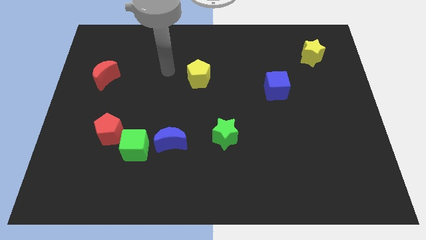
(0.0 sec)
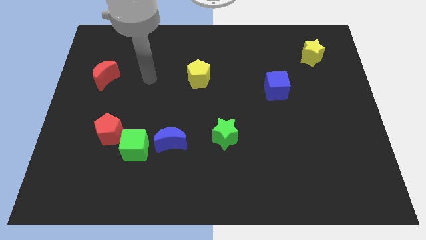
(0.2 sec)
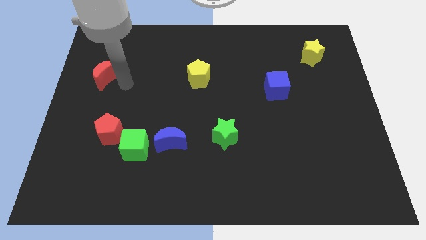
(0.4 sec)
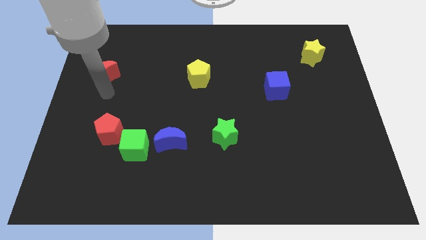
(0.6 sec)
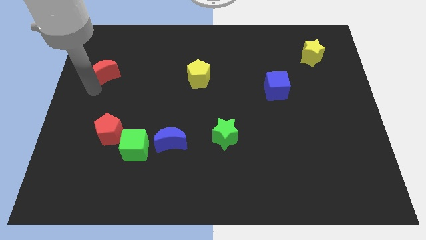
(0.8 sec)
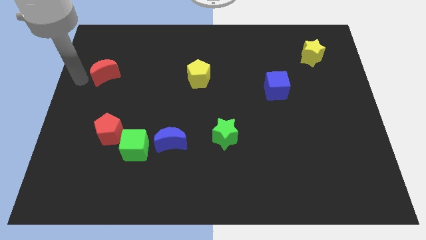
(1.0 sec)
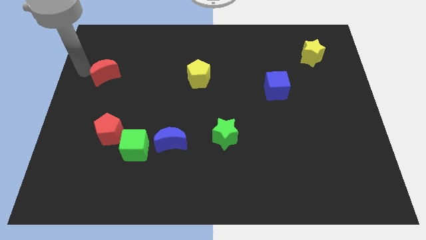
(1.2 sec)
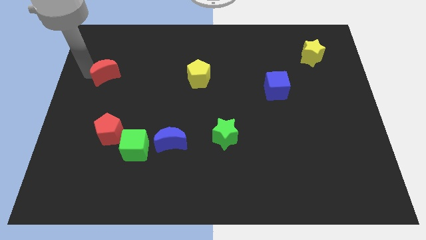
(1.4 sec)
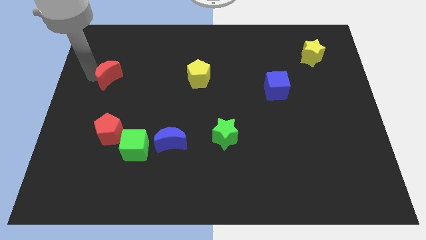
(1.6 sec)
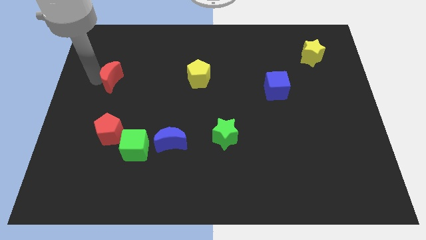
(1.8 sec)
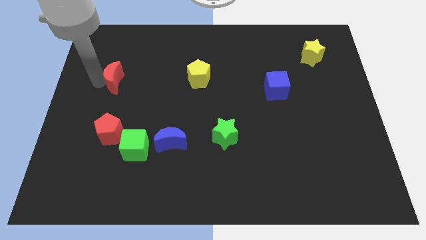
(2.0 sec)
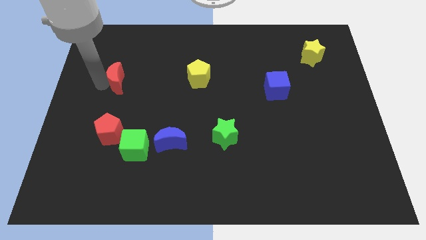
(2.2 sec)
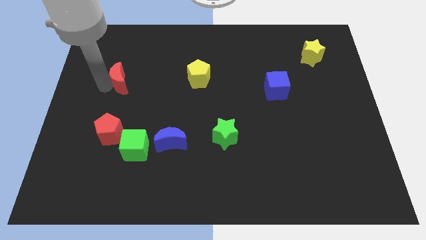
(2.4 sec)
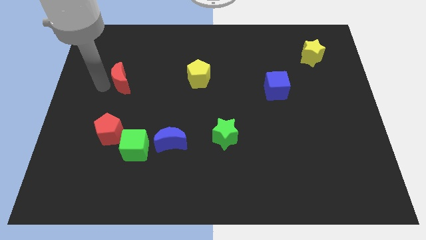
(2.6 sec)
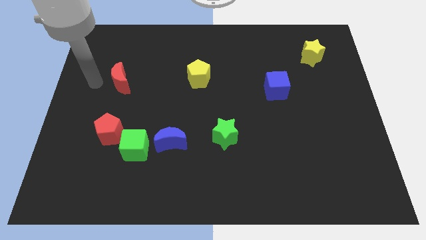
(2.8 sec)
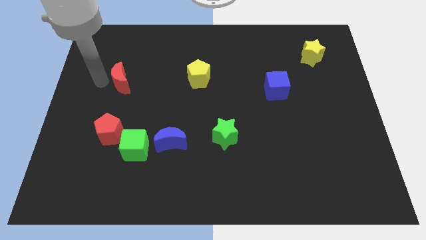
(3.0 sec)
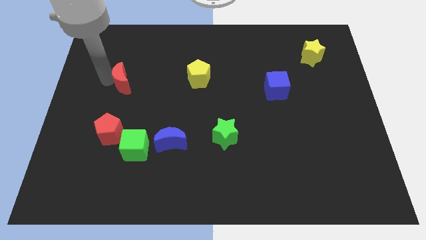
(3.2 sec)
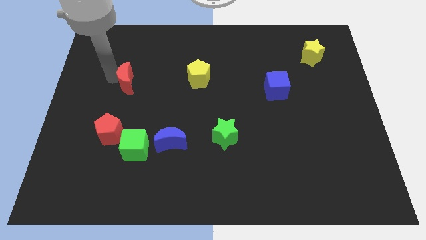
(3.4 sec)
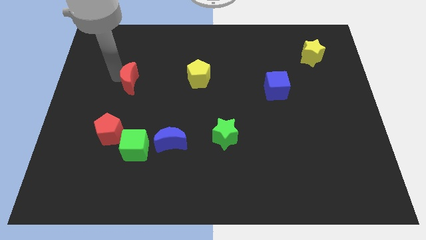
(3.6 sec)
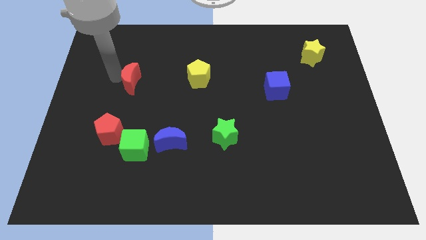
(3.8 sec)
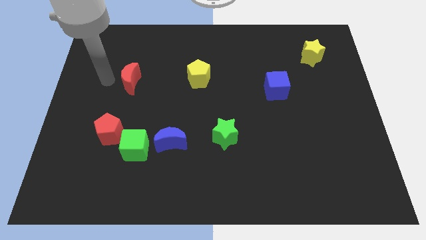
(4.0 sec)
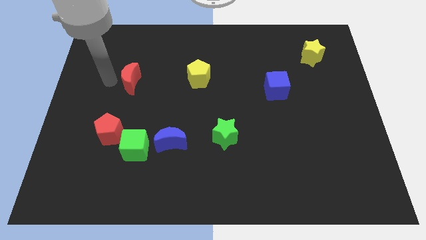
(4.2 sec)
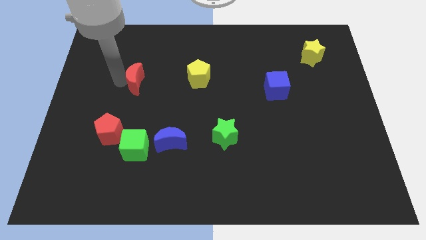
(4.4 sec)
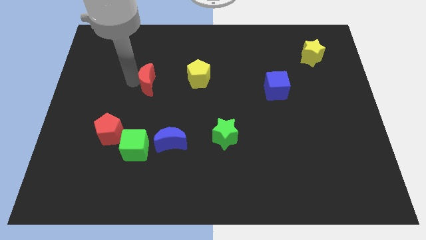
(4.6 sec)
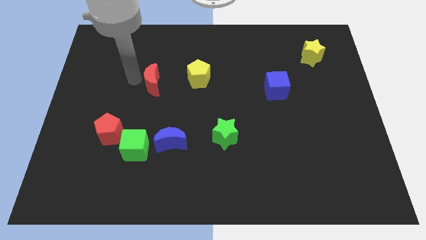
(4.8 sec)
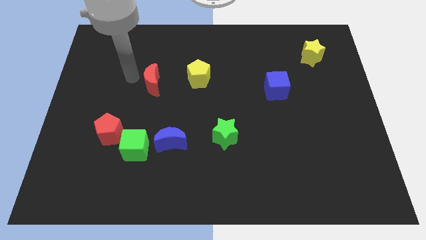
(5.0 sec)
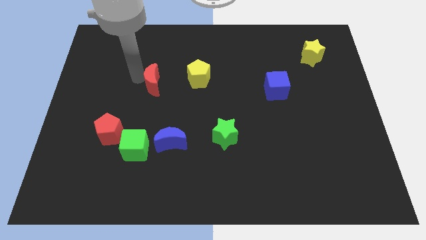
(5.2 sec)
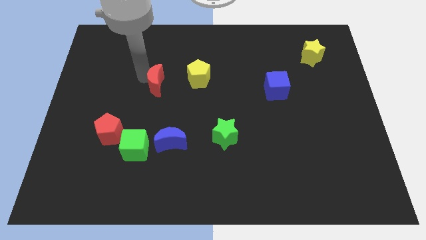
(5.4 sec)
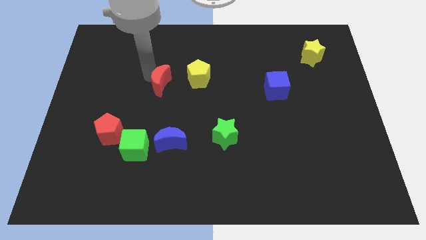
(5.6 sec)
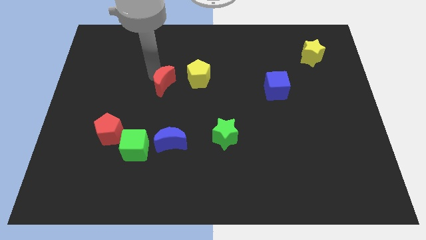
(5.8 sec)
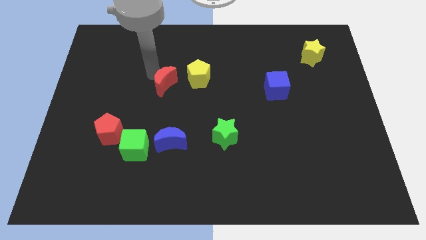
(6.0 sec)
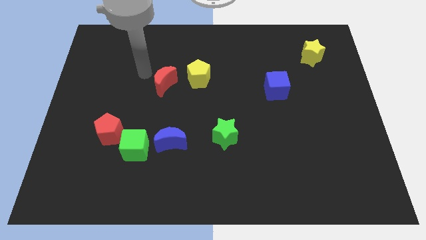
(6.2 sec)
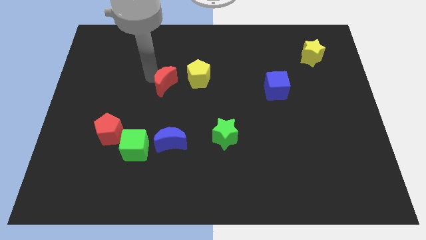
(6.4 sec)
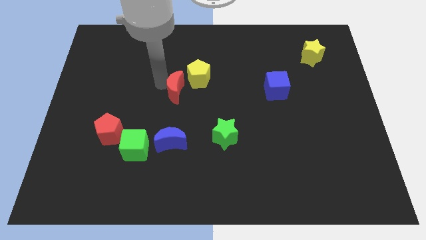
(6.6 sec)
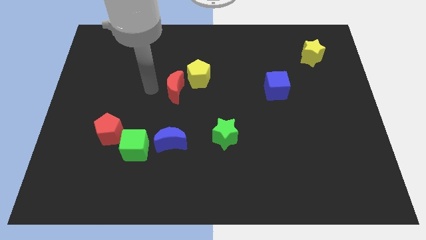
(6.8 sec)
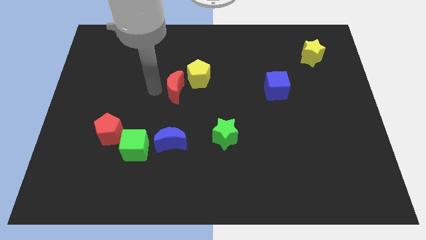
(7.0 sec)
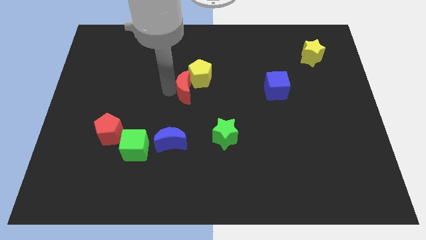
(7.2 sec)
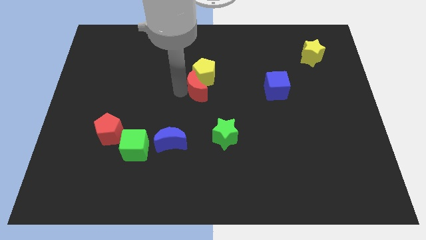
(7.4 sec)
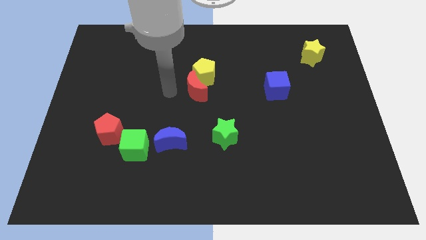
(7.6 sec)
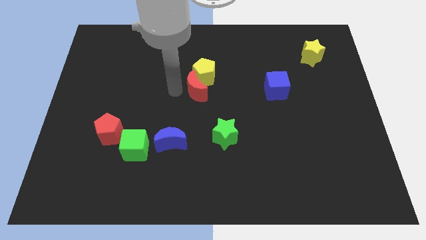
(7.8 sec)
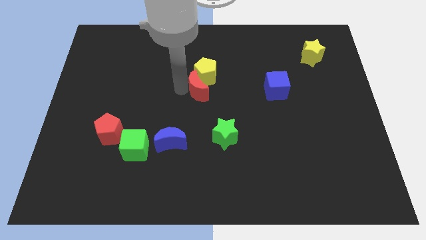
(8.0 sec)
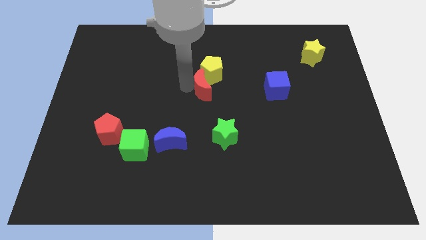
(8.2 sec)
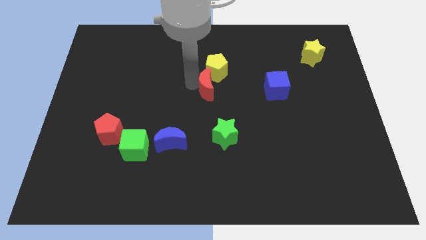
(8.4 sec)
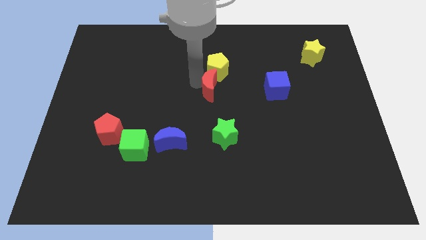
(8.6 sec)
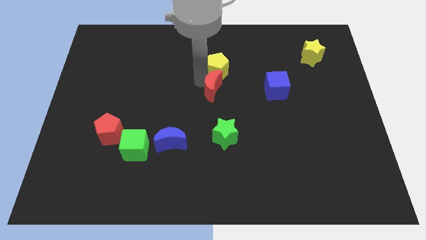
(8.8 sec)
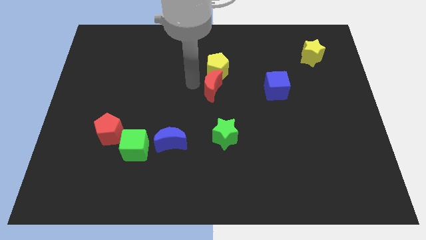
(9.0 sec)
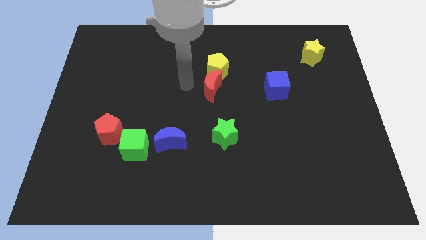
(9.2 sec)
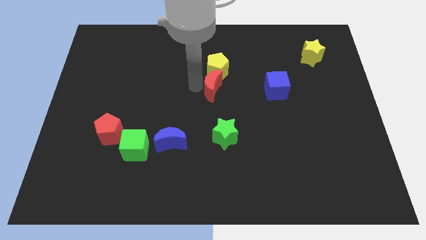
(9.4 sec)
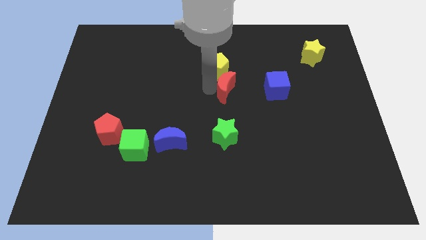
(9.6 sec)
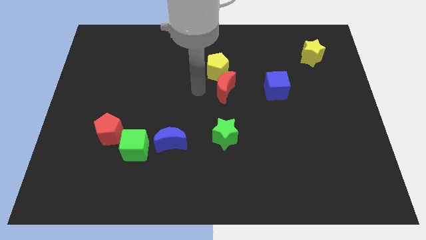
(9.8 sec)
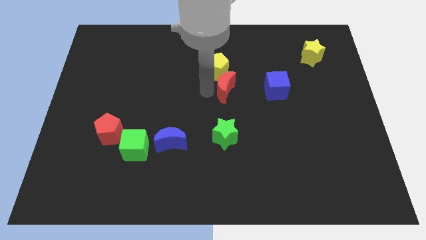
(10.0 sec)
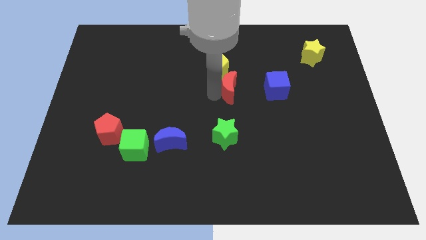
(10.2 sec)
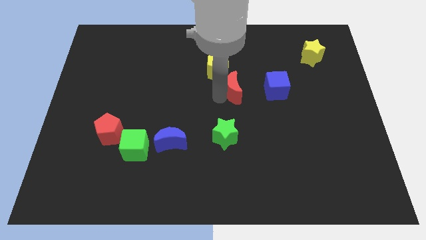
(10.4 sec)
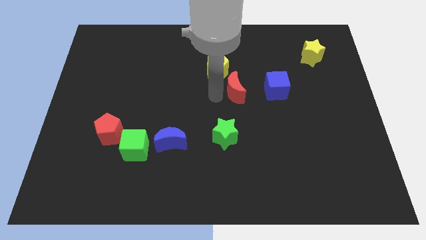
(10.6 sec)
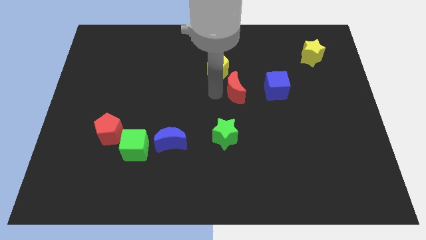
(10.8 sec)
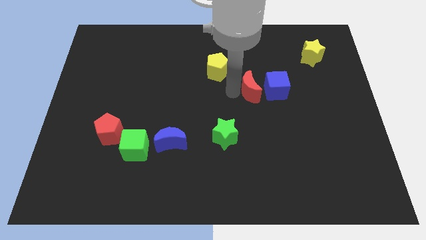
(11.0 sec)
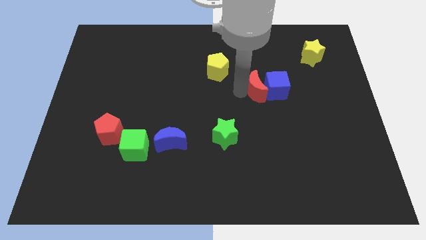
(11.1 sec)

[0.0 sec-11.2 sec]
slide the red moon next to the blue cube

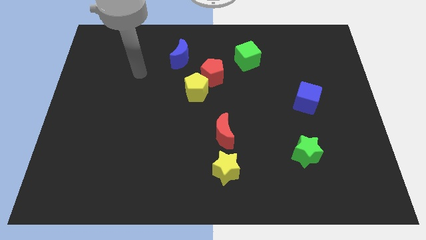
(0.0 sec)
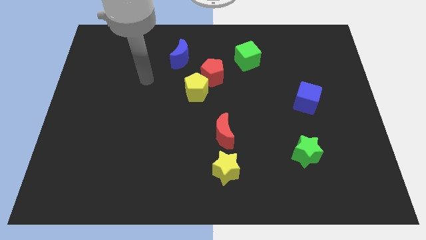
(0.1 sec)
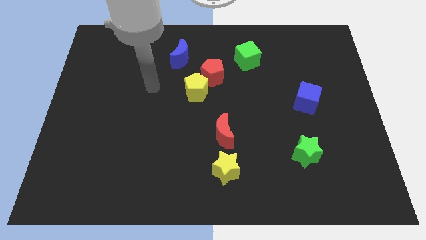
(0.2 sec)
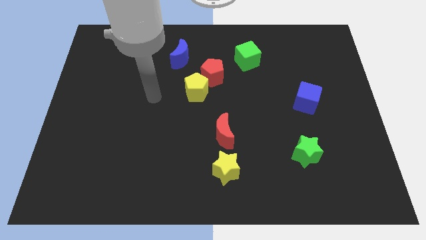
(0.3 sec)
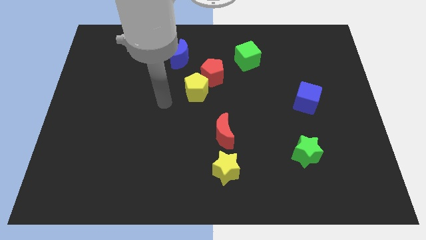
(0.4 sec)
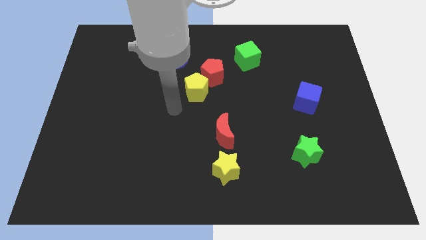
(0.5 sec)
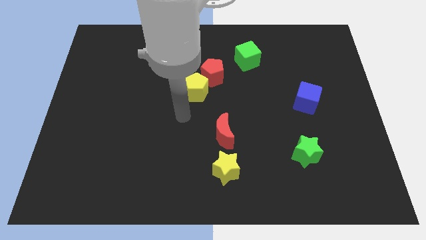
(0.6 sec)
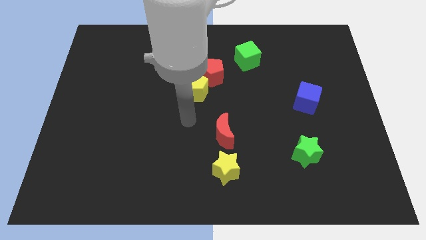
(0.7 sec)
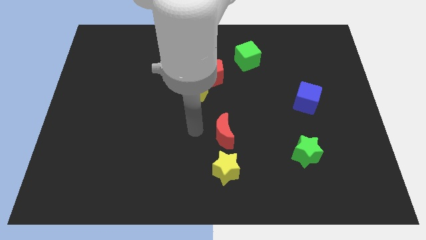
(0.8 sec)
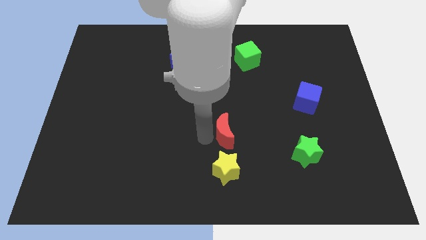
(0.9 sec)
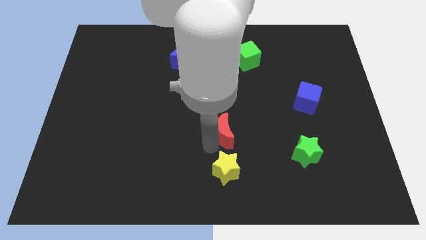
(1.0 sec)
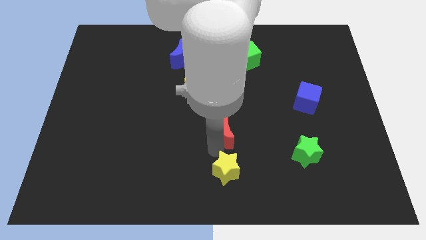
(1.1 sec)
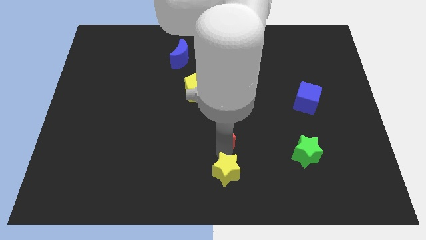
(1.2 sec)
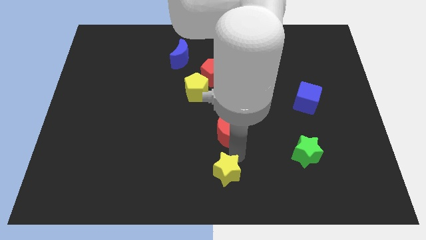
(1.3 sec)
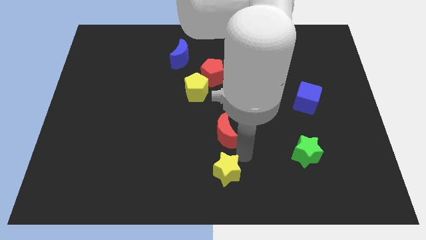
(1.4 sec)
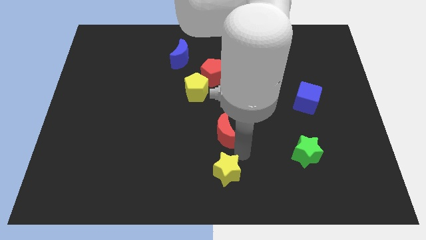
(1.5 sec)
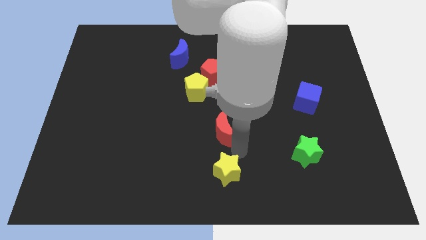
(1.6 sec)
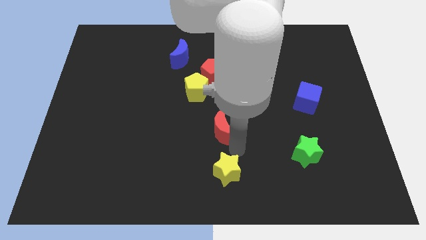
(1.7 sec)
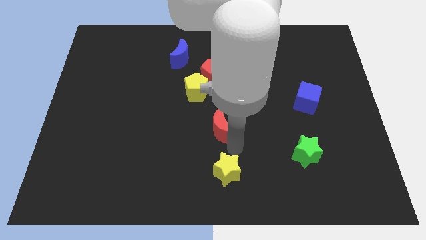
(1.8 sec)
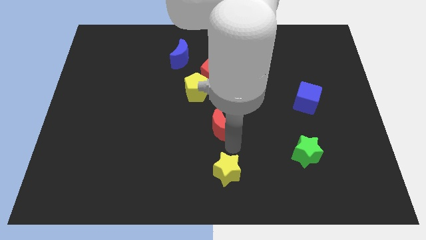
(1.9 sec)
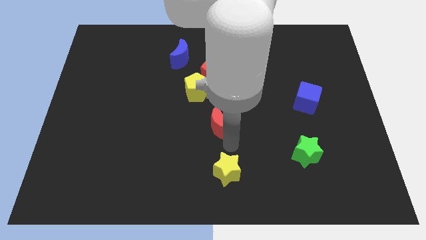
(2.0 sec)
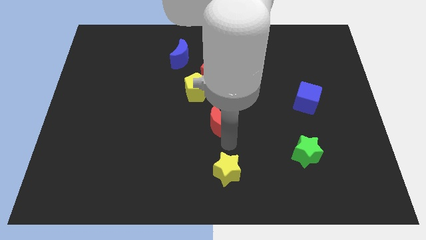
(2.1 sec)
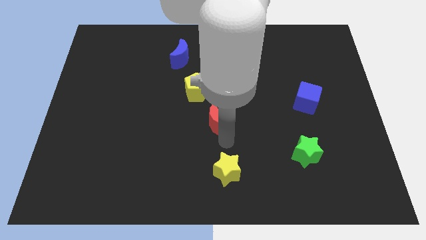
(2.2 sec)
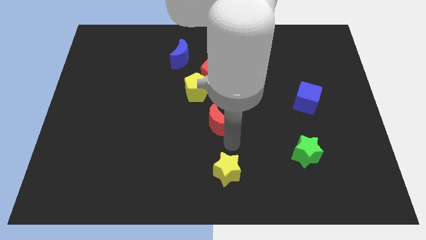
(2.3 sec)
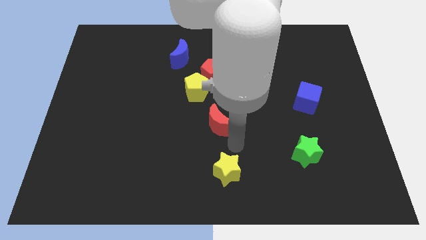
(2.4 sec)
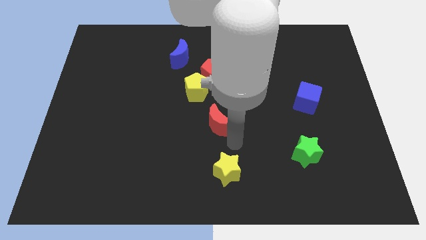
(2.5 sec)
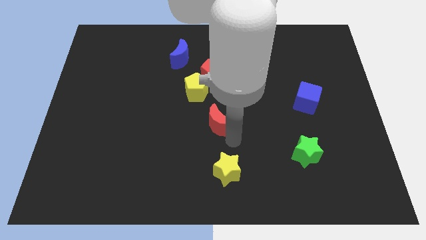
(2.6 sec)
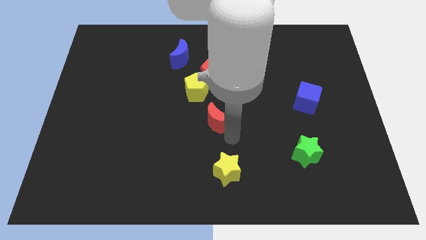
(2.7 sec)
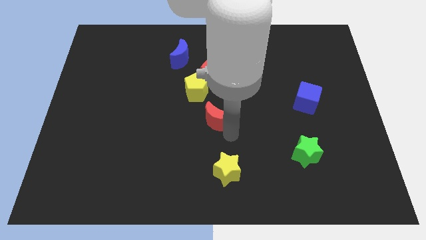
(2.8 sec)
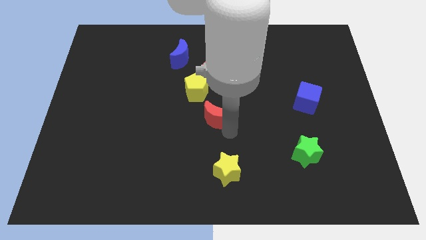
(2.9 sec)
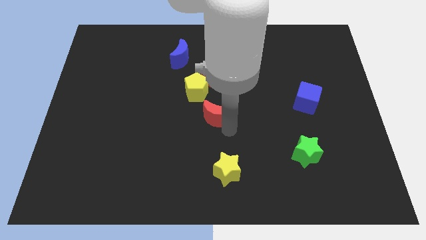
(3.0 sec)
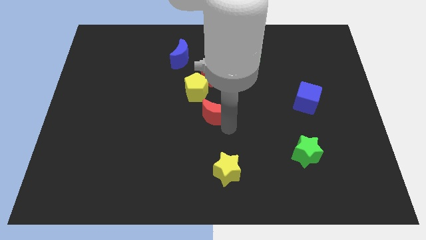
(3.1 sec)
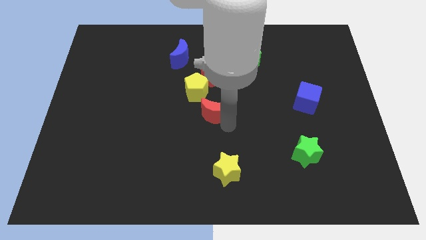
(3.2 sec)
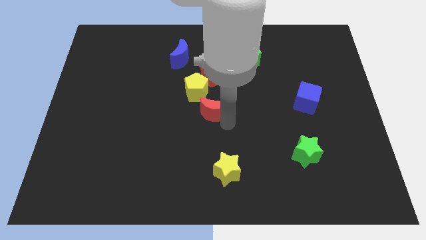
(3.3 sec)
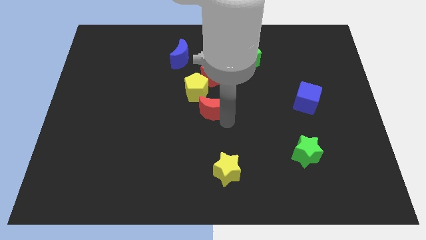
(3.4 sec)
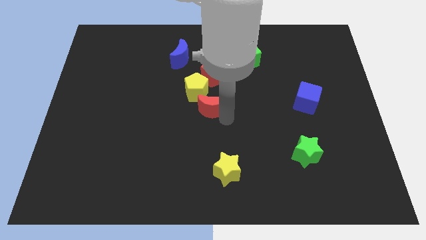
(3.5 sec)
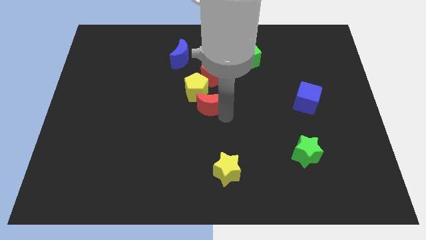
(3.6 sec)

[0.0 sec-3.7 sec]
push the red moon to the yellow pentagon
